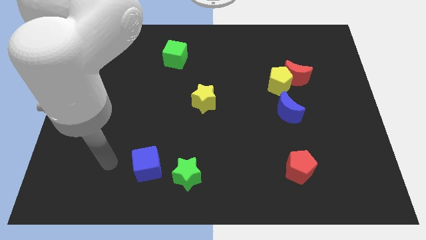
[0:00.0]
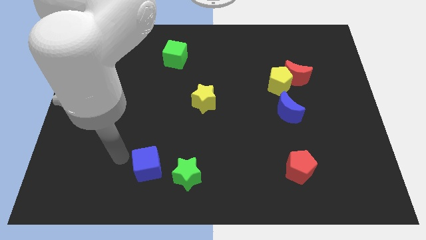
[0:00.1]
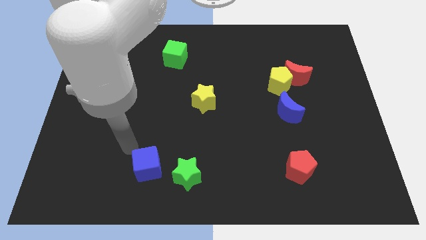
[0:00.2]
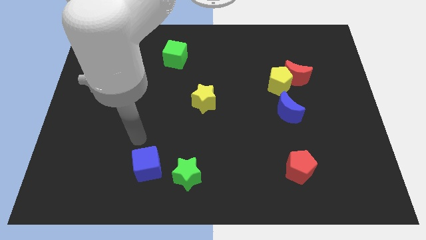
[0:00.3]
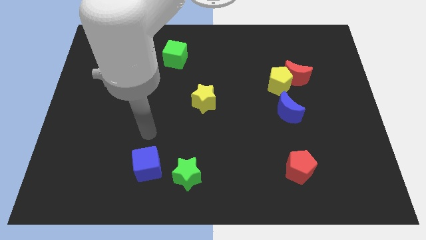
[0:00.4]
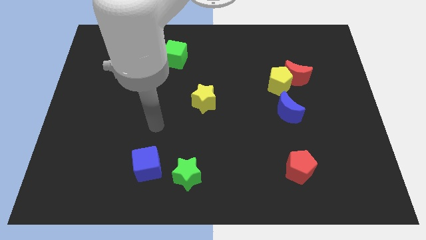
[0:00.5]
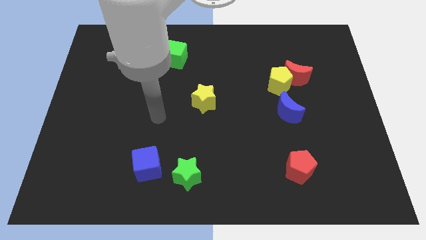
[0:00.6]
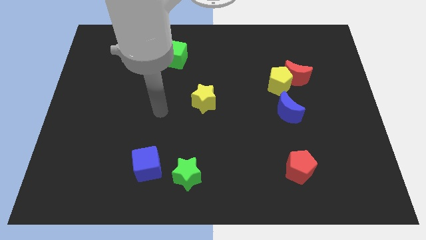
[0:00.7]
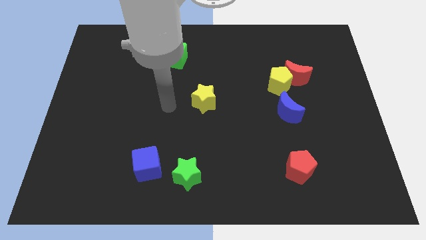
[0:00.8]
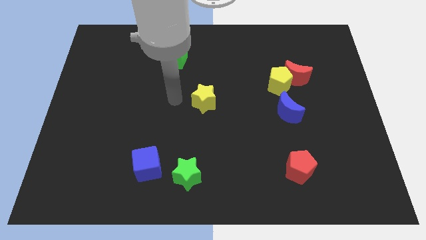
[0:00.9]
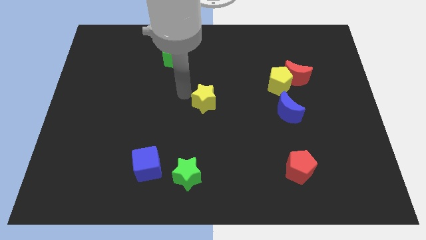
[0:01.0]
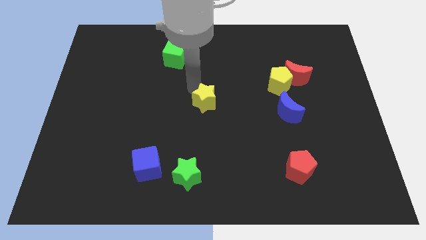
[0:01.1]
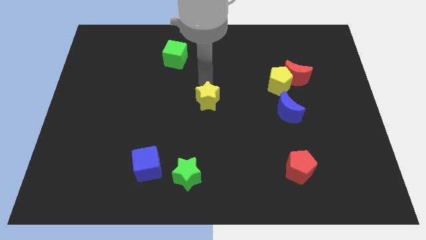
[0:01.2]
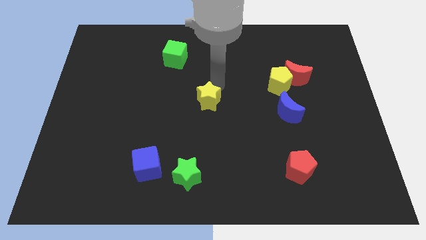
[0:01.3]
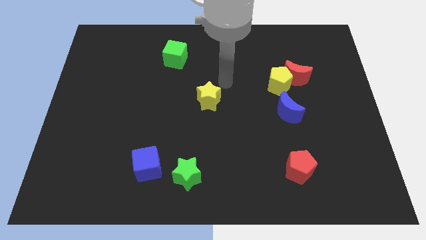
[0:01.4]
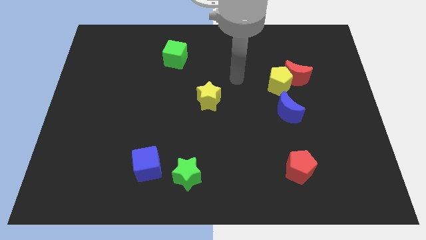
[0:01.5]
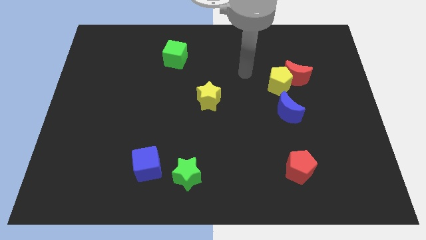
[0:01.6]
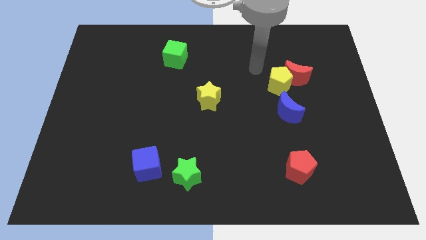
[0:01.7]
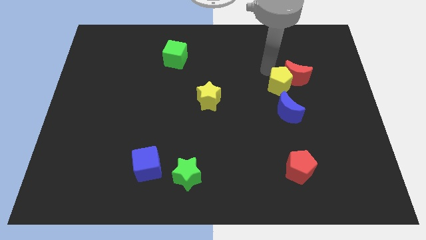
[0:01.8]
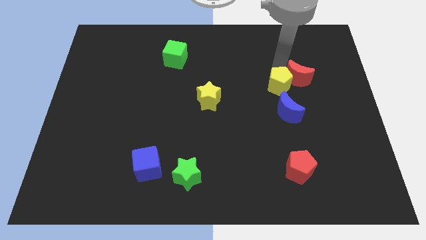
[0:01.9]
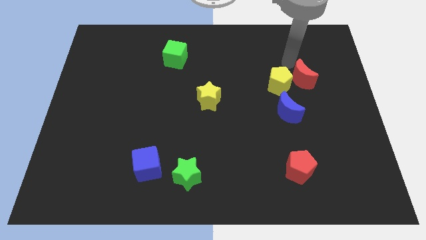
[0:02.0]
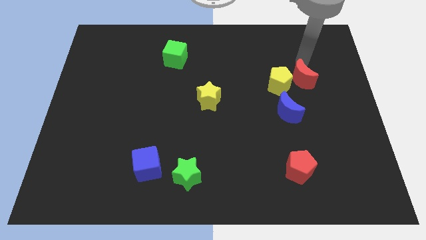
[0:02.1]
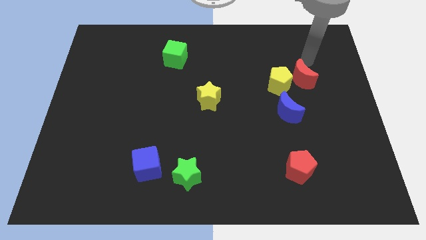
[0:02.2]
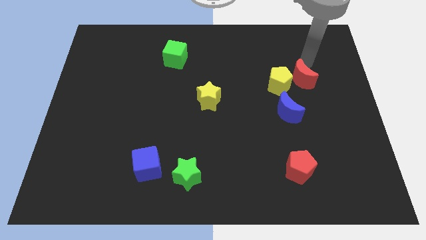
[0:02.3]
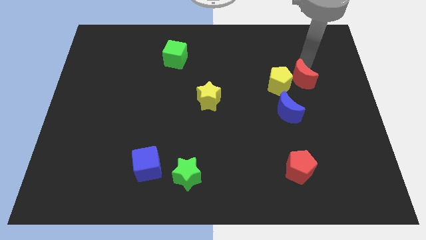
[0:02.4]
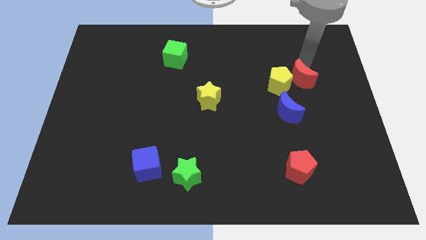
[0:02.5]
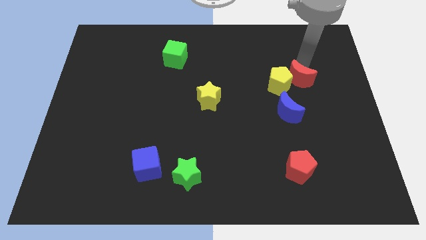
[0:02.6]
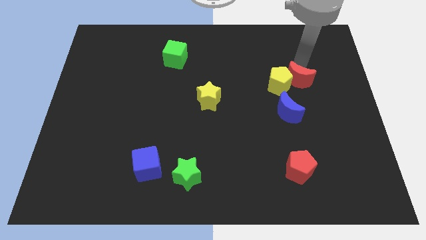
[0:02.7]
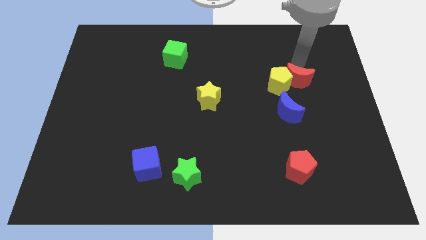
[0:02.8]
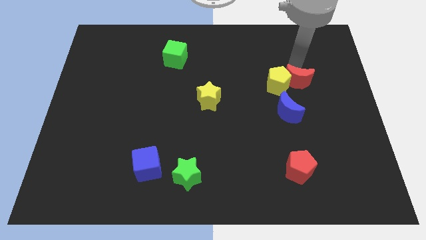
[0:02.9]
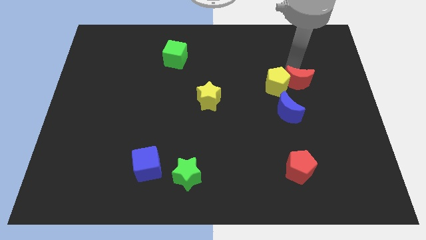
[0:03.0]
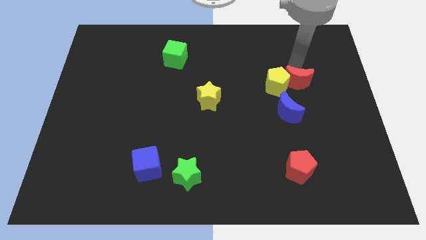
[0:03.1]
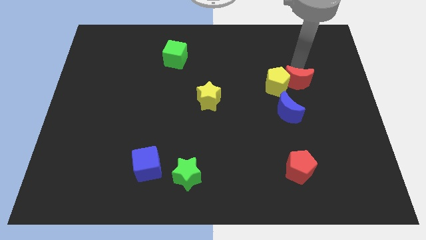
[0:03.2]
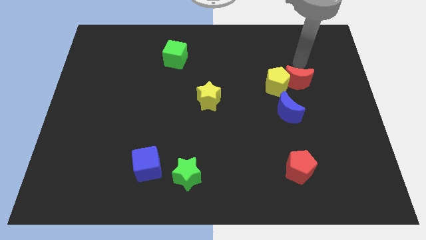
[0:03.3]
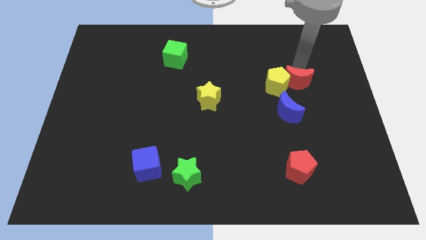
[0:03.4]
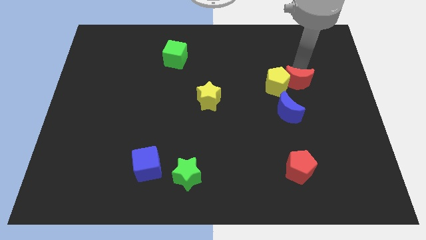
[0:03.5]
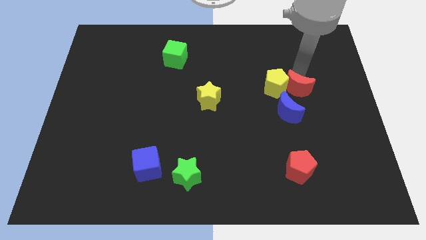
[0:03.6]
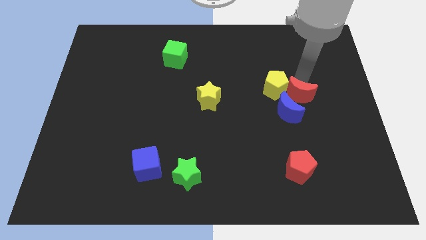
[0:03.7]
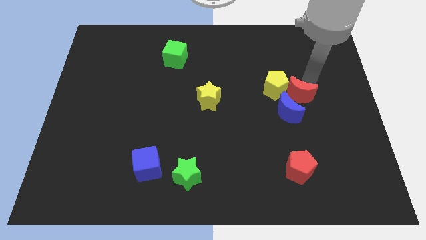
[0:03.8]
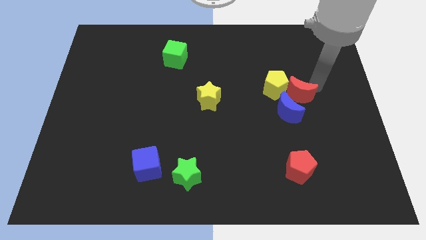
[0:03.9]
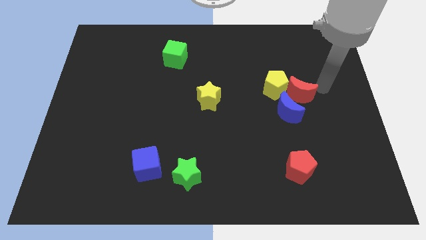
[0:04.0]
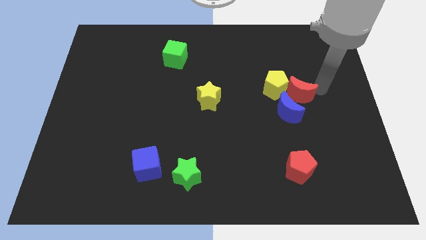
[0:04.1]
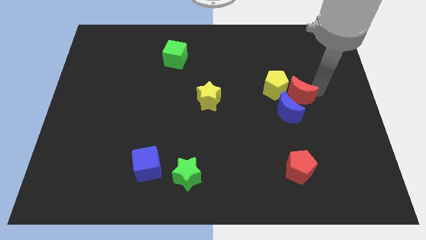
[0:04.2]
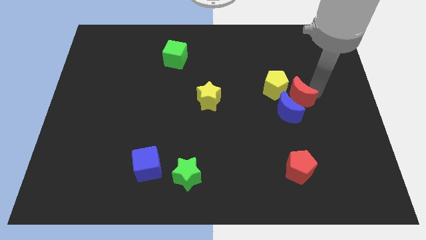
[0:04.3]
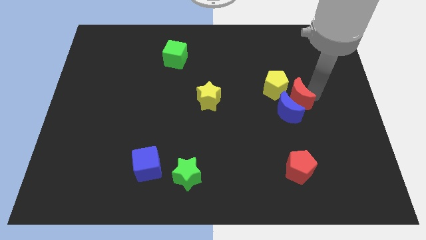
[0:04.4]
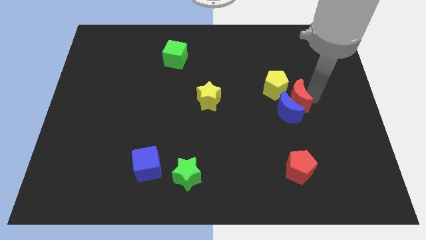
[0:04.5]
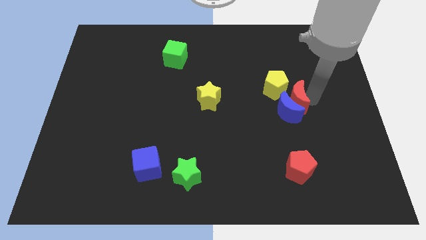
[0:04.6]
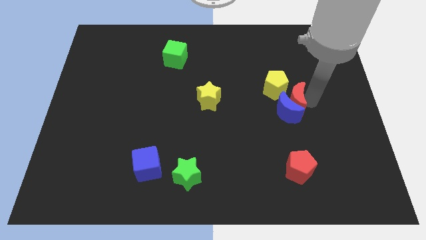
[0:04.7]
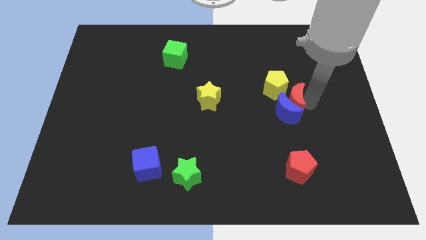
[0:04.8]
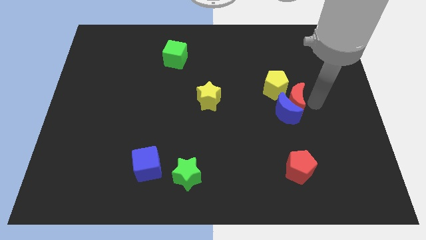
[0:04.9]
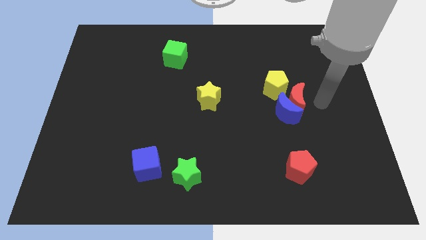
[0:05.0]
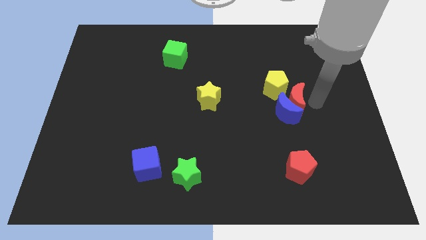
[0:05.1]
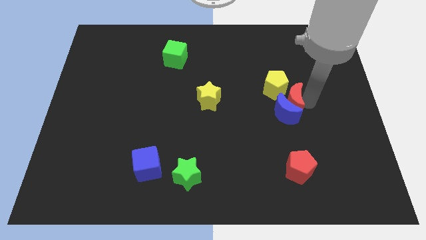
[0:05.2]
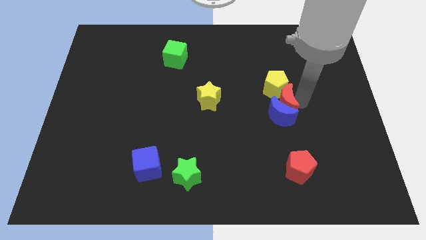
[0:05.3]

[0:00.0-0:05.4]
slightly slide the red moon downwards and left diagonally

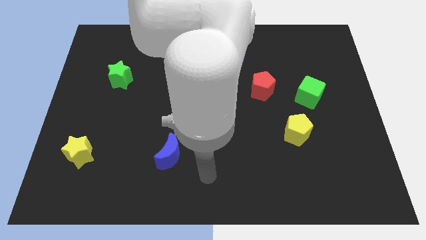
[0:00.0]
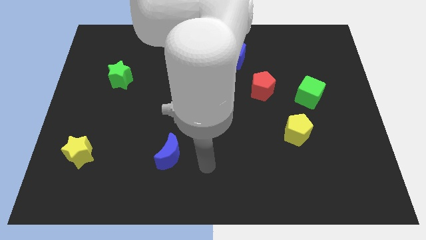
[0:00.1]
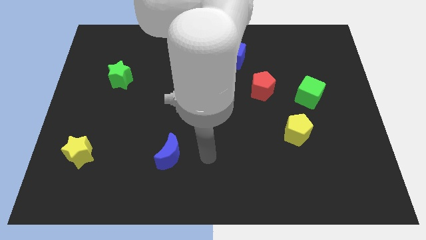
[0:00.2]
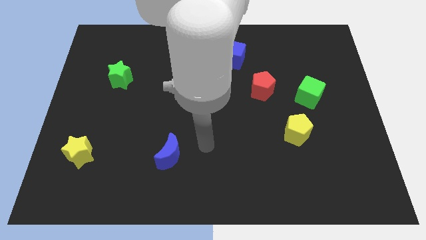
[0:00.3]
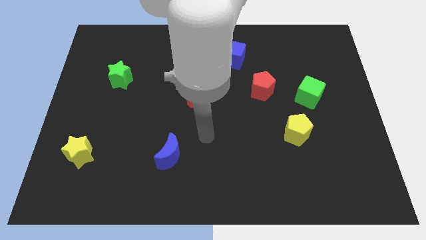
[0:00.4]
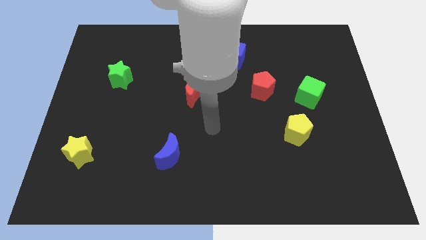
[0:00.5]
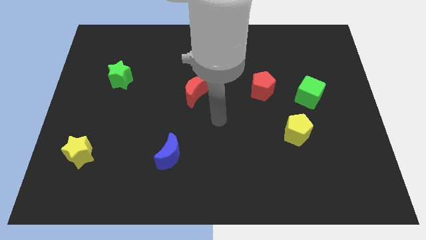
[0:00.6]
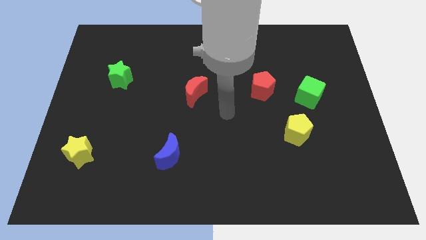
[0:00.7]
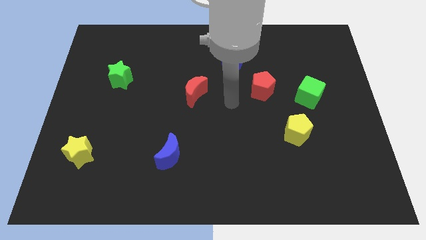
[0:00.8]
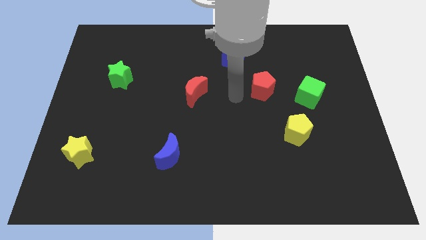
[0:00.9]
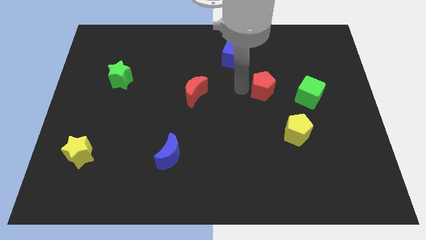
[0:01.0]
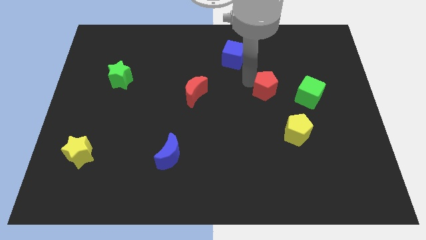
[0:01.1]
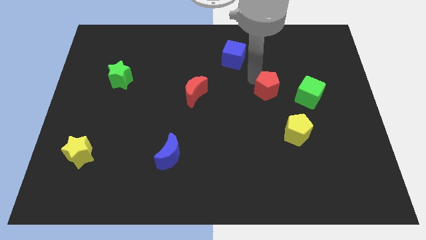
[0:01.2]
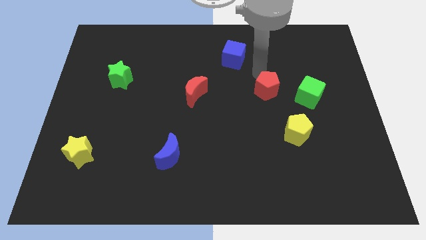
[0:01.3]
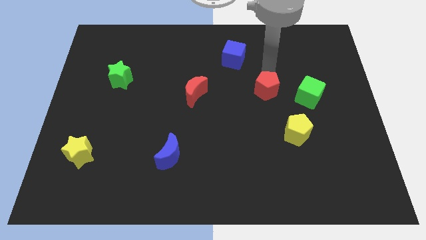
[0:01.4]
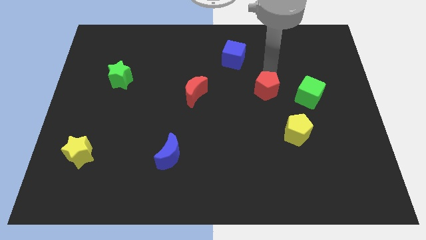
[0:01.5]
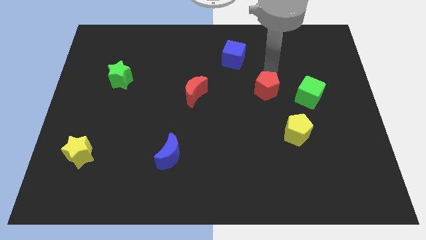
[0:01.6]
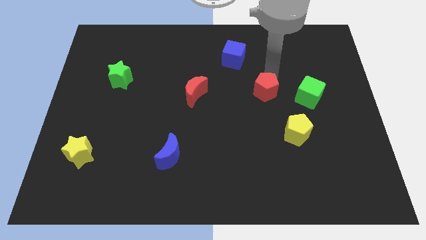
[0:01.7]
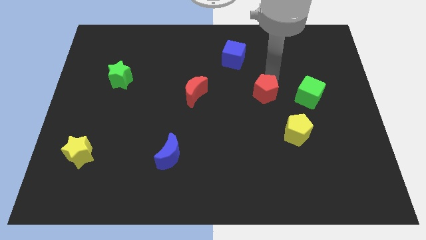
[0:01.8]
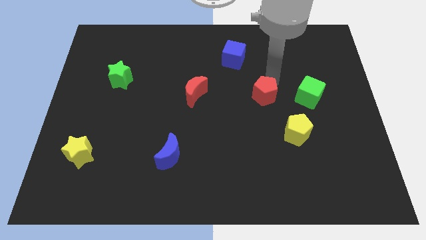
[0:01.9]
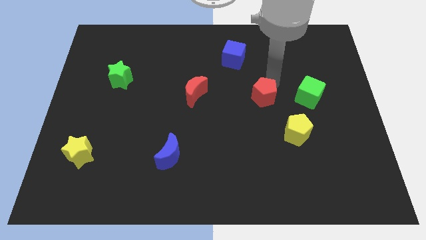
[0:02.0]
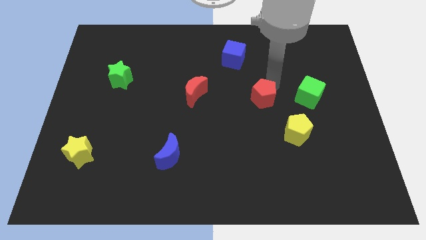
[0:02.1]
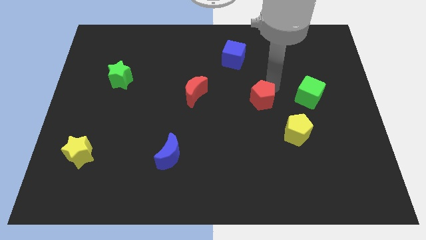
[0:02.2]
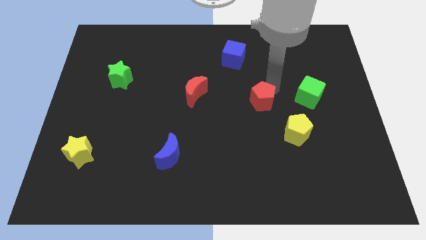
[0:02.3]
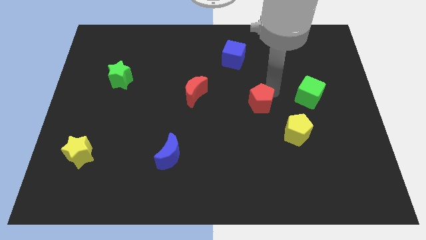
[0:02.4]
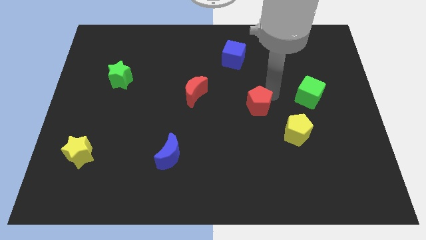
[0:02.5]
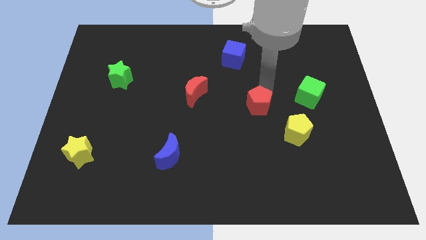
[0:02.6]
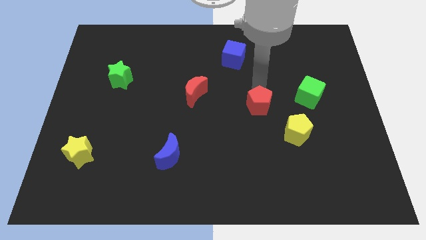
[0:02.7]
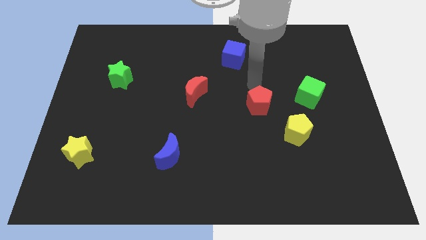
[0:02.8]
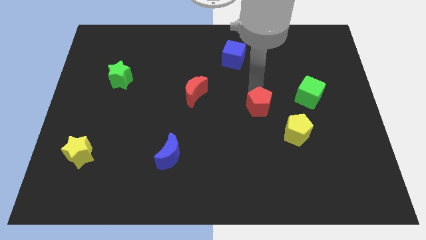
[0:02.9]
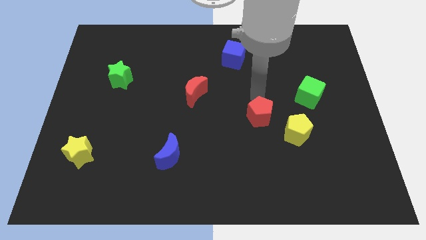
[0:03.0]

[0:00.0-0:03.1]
slightly push the red pentagon downwards
